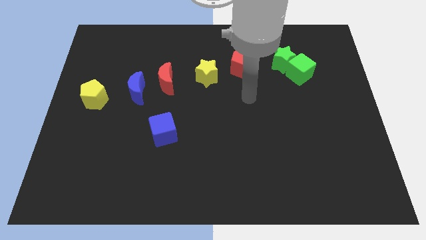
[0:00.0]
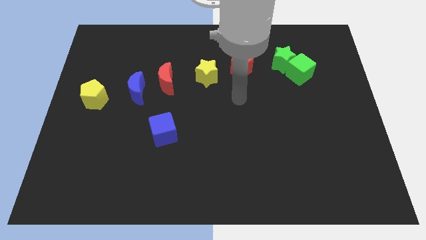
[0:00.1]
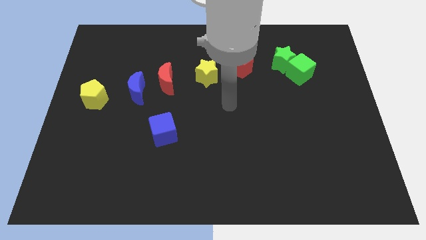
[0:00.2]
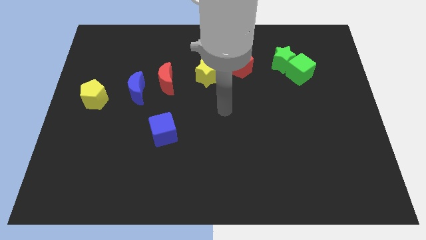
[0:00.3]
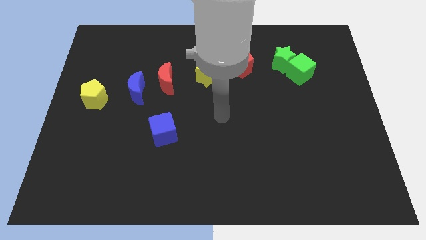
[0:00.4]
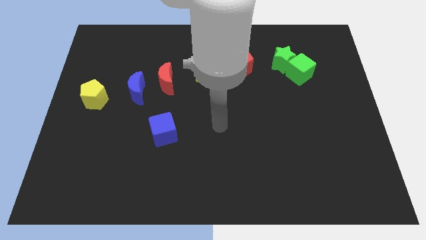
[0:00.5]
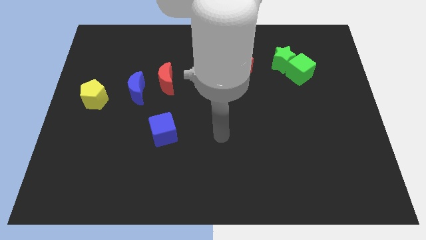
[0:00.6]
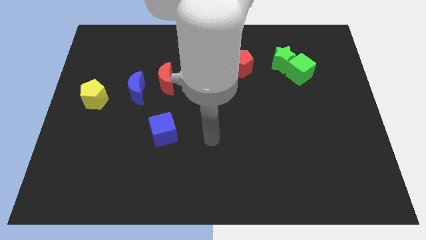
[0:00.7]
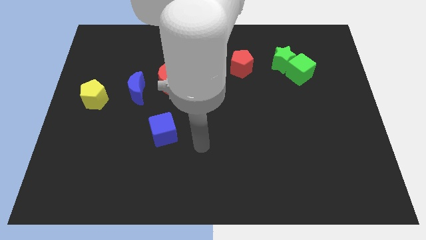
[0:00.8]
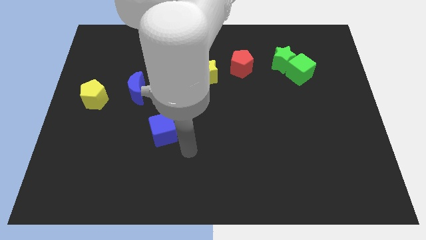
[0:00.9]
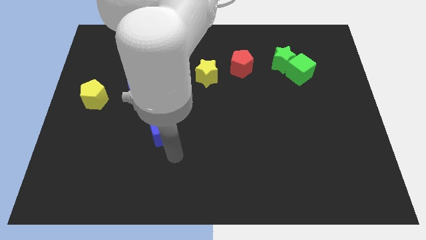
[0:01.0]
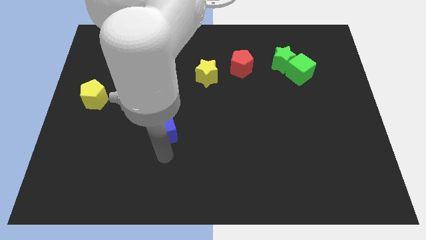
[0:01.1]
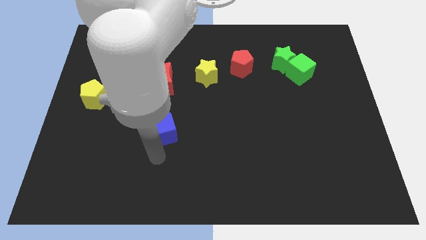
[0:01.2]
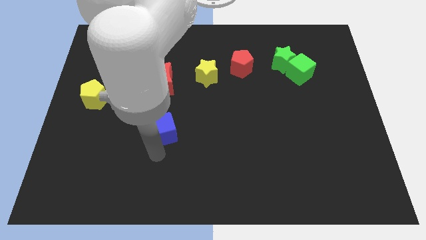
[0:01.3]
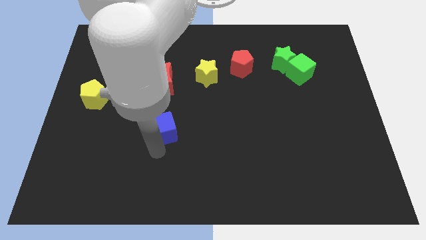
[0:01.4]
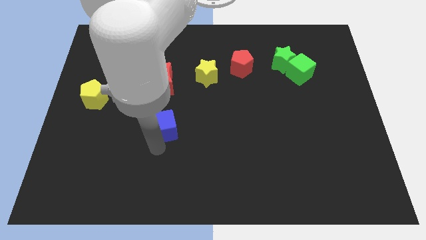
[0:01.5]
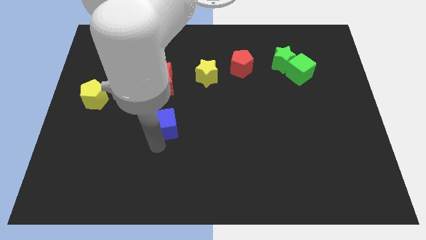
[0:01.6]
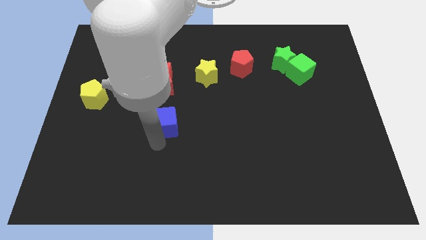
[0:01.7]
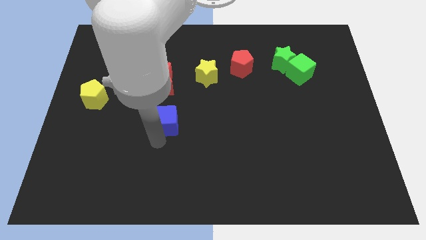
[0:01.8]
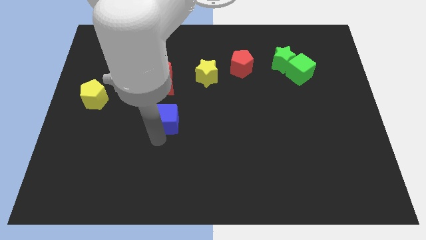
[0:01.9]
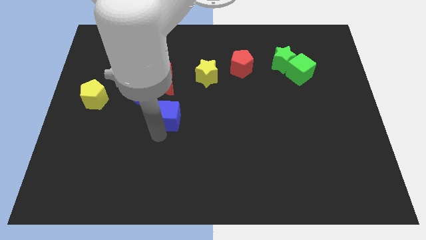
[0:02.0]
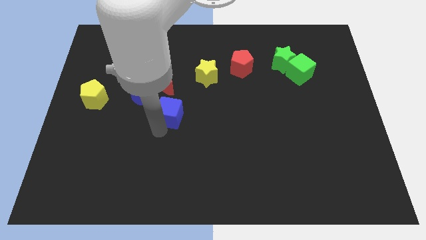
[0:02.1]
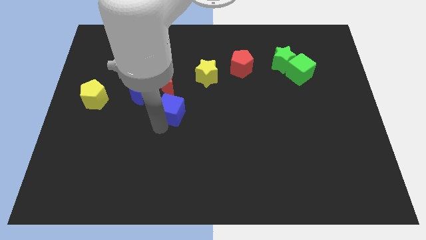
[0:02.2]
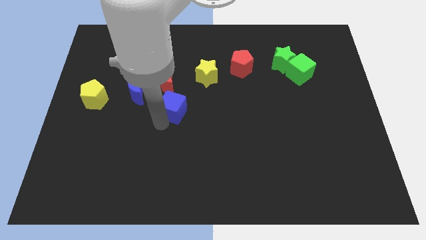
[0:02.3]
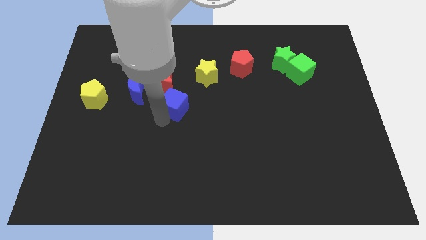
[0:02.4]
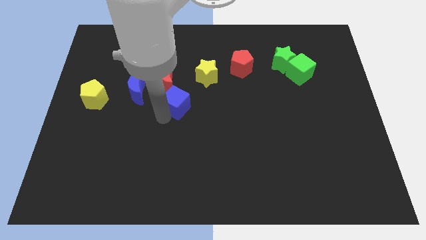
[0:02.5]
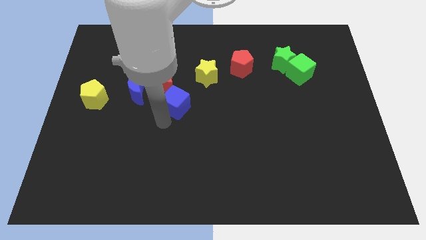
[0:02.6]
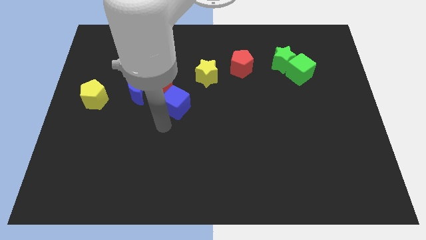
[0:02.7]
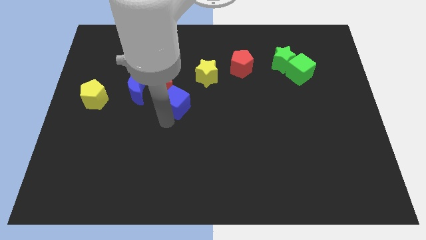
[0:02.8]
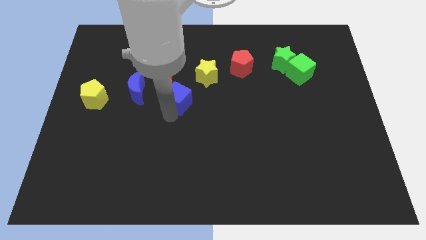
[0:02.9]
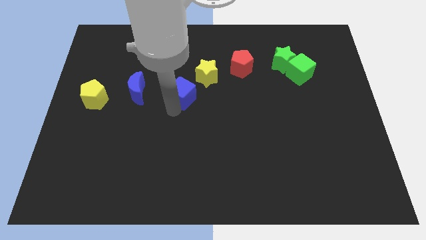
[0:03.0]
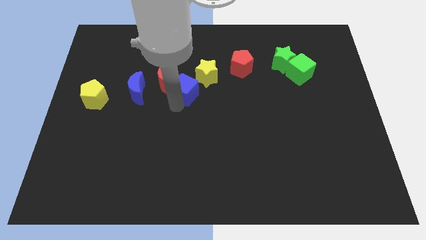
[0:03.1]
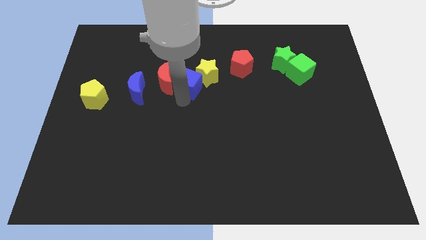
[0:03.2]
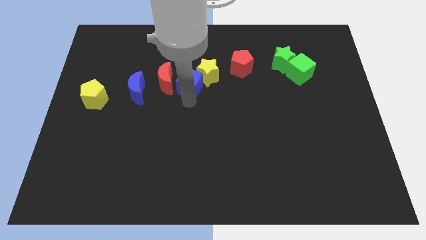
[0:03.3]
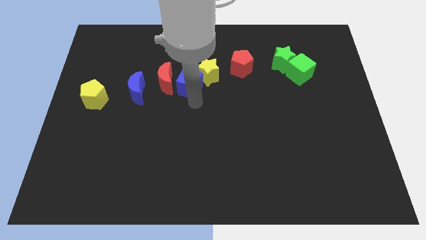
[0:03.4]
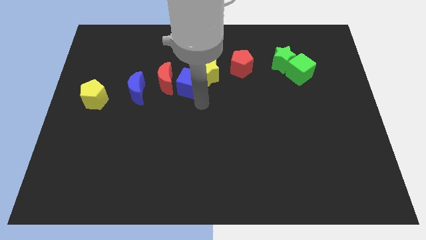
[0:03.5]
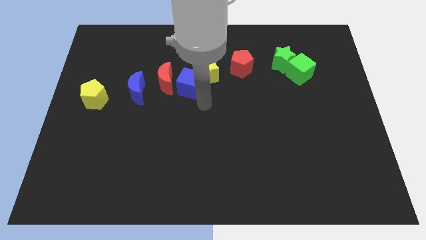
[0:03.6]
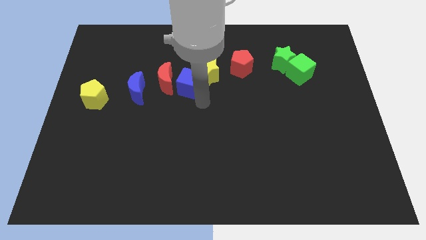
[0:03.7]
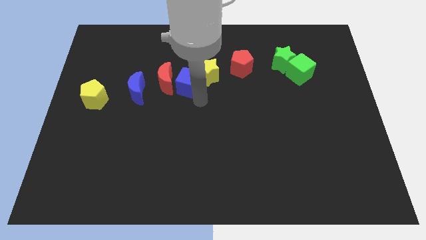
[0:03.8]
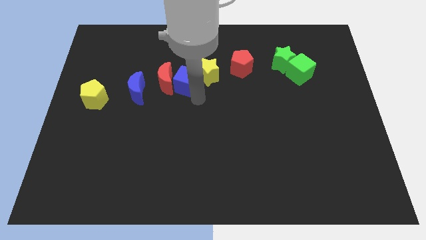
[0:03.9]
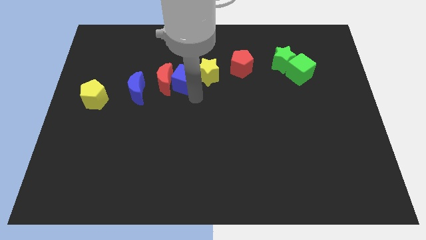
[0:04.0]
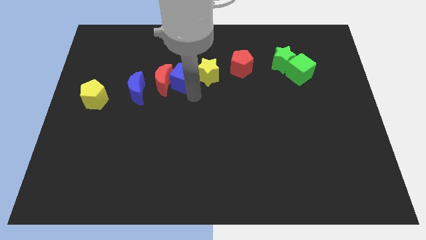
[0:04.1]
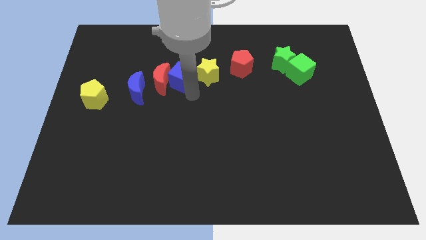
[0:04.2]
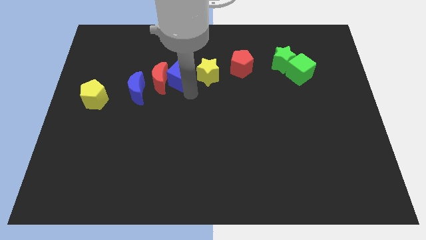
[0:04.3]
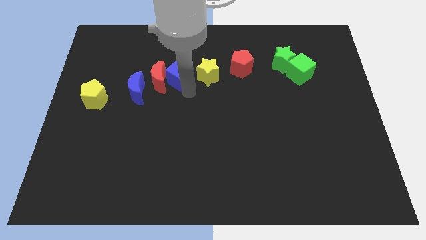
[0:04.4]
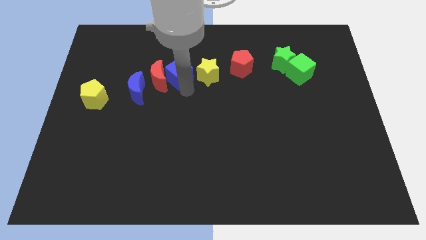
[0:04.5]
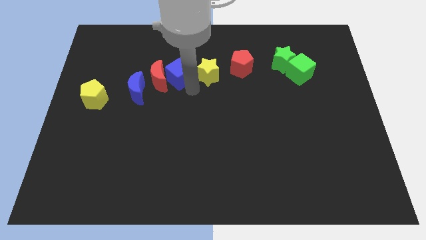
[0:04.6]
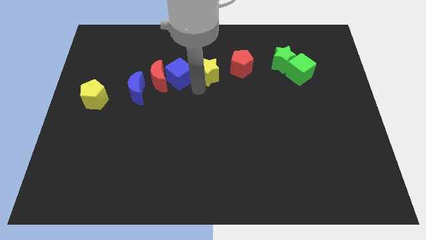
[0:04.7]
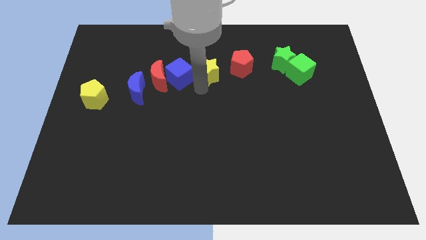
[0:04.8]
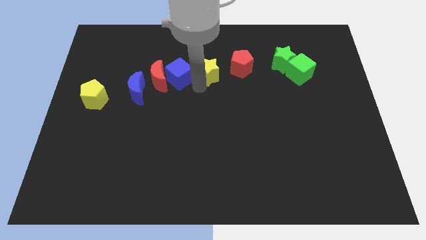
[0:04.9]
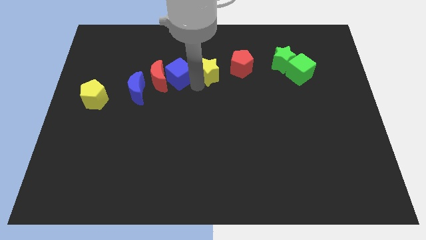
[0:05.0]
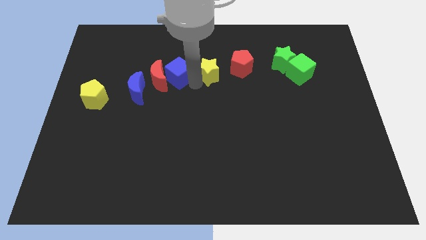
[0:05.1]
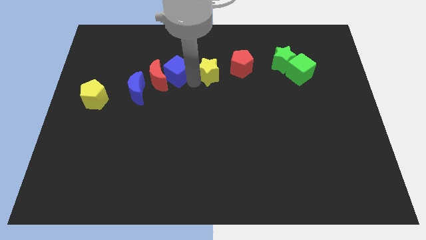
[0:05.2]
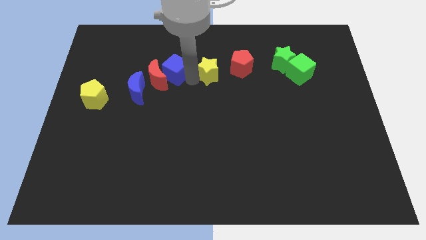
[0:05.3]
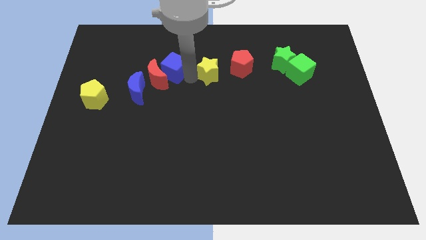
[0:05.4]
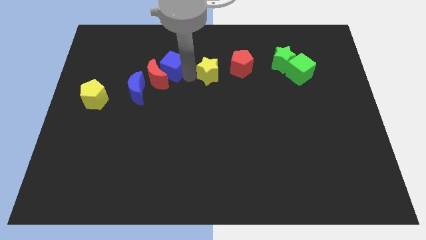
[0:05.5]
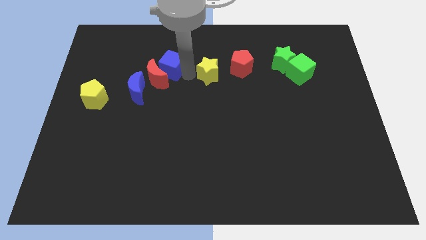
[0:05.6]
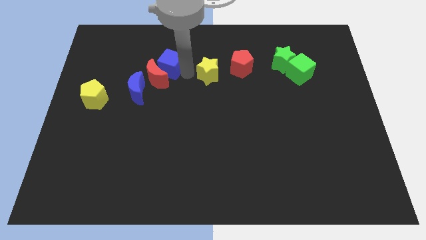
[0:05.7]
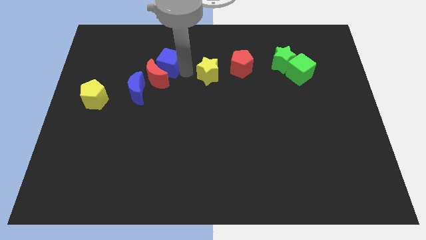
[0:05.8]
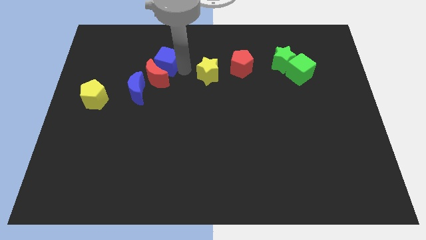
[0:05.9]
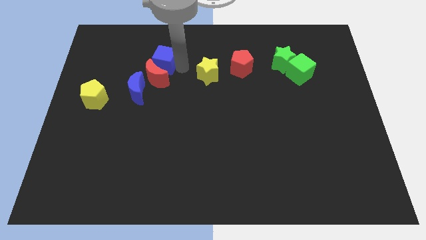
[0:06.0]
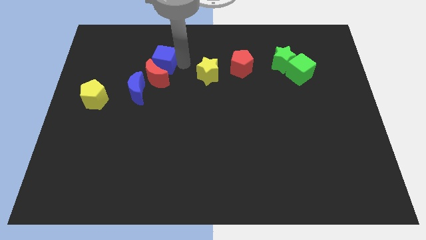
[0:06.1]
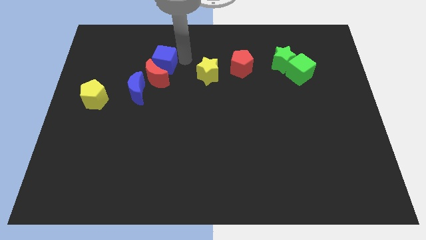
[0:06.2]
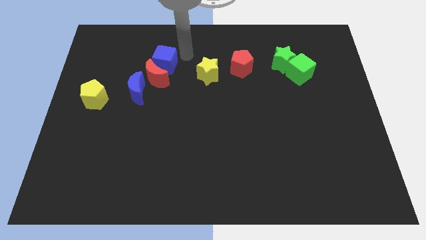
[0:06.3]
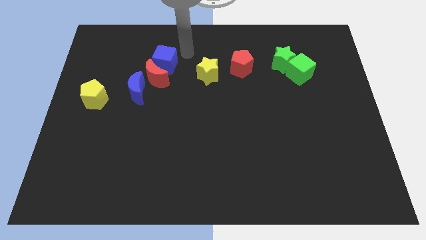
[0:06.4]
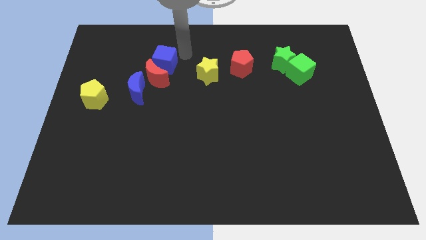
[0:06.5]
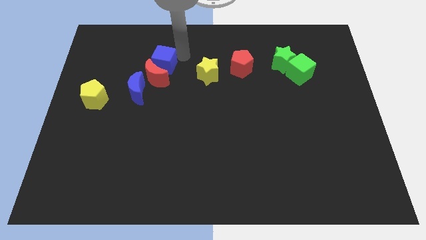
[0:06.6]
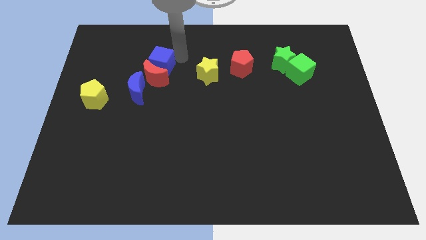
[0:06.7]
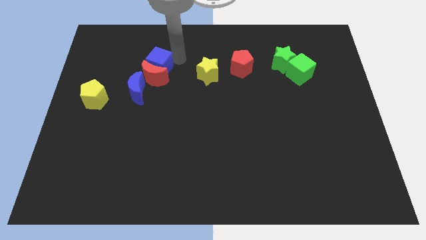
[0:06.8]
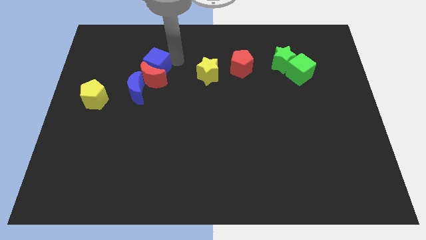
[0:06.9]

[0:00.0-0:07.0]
slightly slide the blue cube up and then left

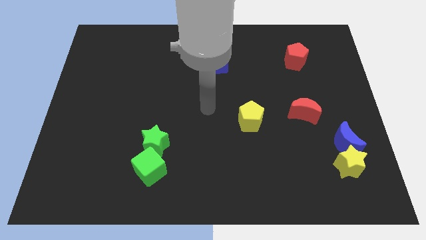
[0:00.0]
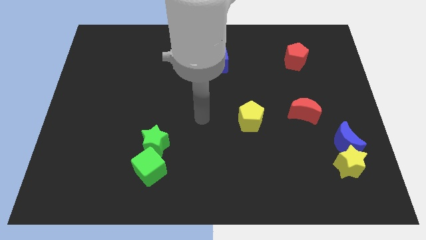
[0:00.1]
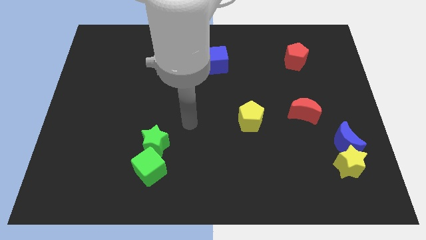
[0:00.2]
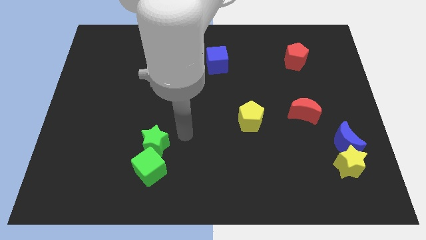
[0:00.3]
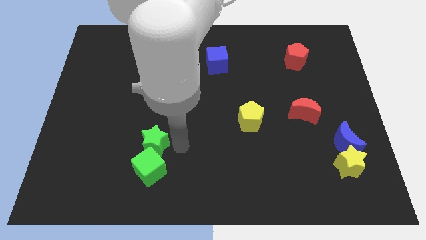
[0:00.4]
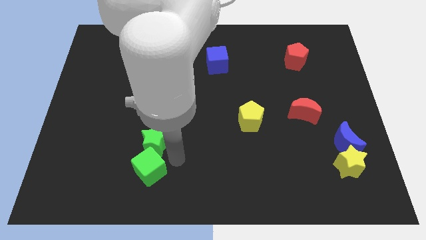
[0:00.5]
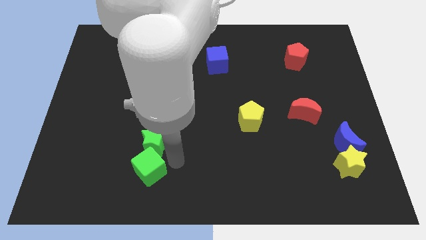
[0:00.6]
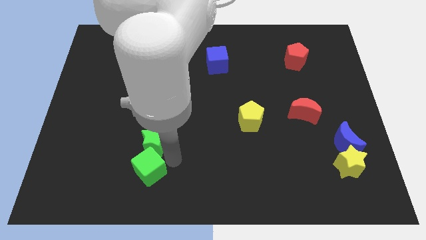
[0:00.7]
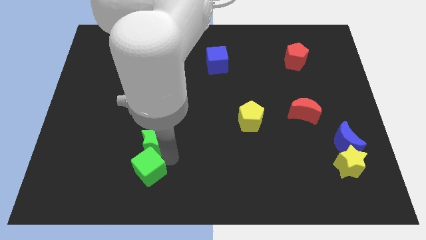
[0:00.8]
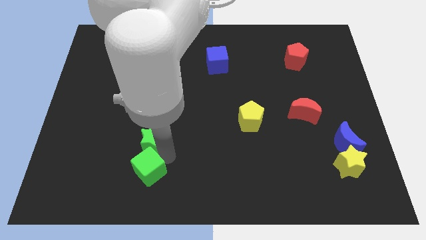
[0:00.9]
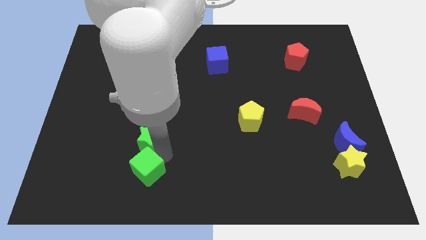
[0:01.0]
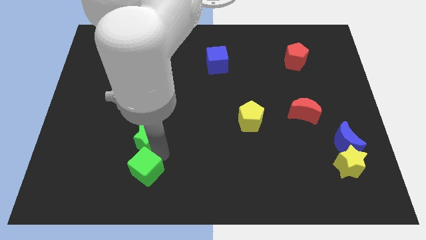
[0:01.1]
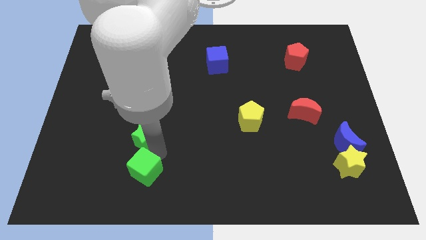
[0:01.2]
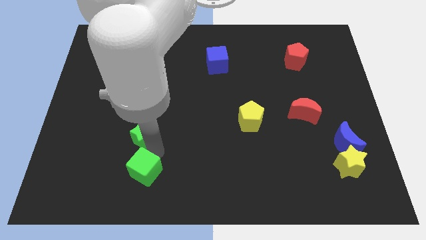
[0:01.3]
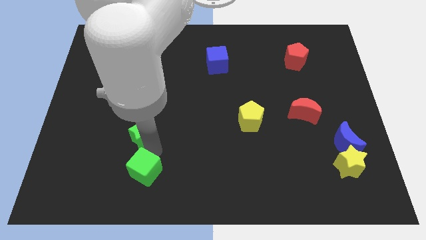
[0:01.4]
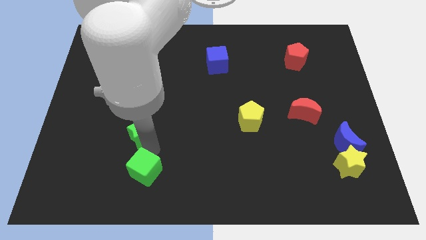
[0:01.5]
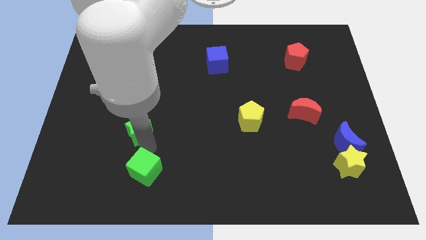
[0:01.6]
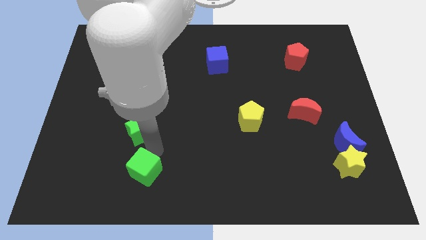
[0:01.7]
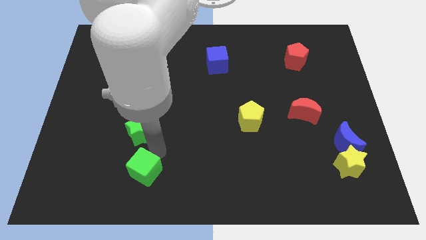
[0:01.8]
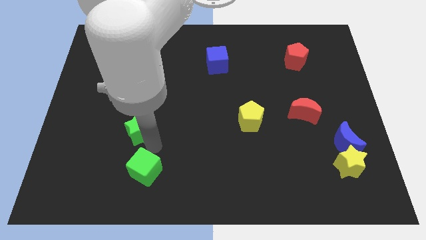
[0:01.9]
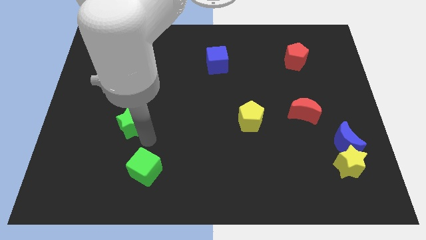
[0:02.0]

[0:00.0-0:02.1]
move the green star slightly up and left diagonally
